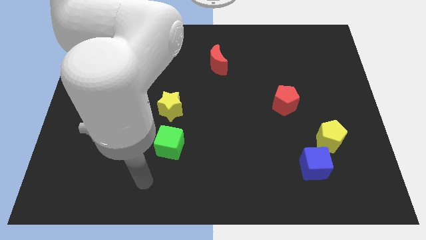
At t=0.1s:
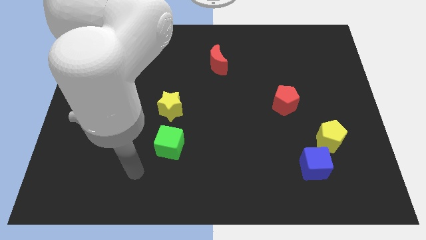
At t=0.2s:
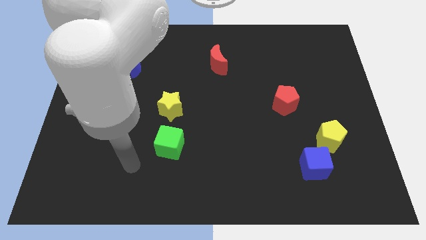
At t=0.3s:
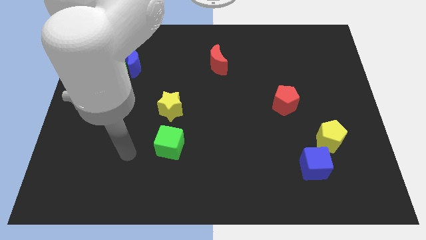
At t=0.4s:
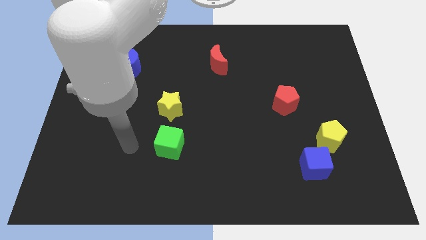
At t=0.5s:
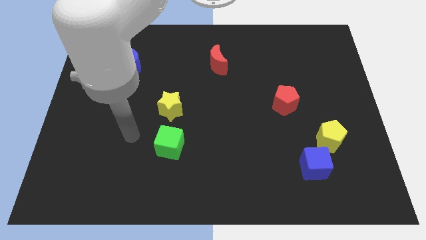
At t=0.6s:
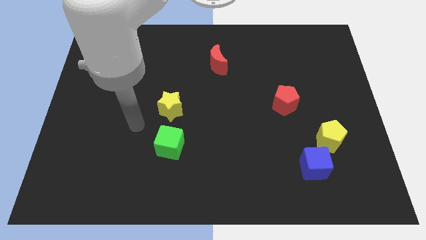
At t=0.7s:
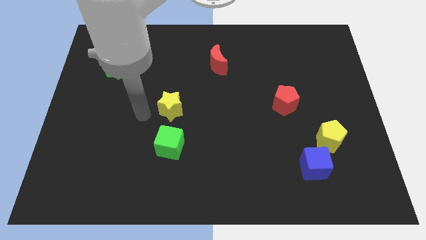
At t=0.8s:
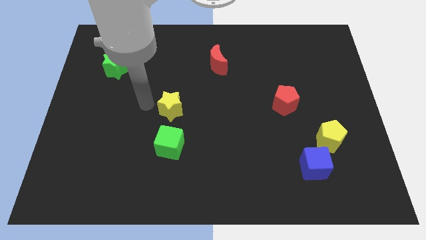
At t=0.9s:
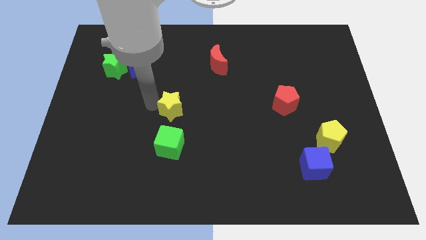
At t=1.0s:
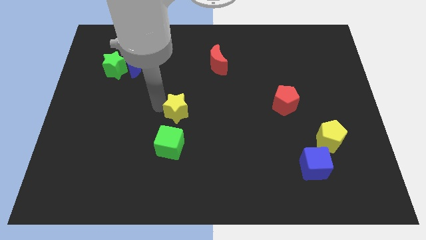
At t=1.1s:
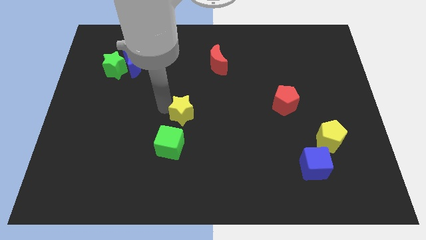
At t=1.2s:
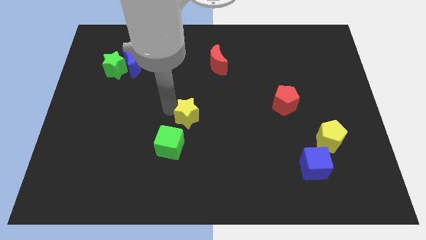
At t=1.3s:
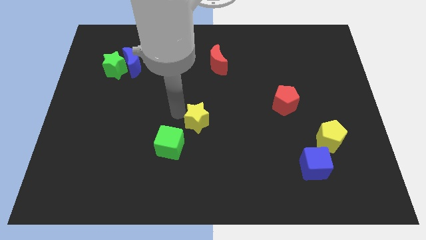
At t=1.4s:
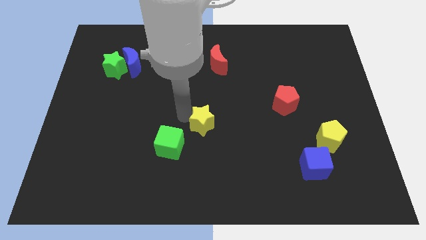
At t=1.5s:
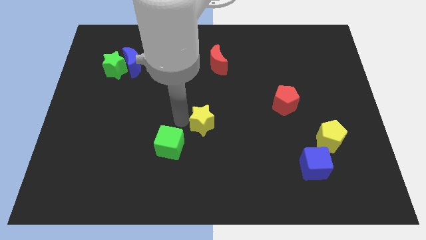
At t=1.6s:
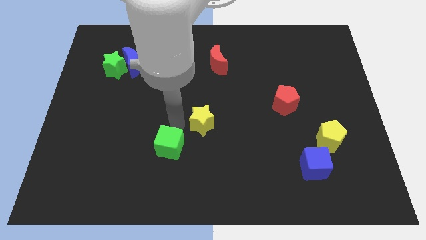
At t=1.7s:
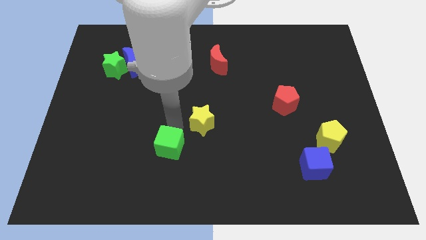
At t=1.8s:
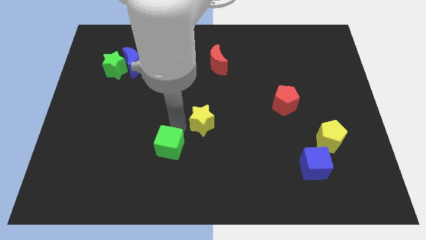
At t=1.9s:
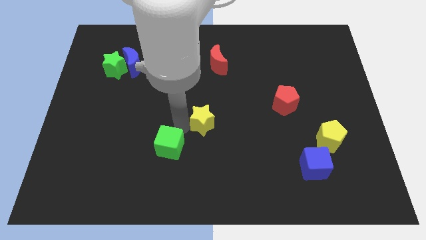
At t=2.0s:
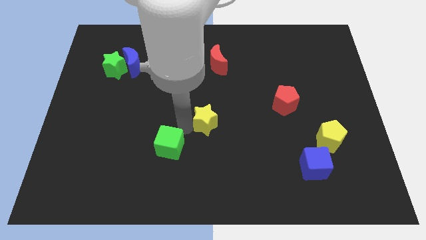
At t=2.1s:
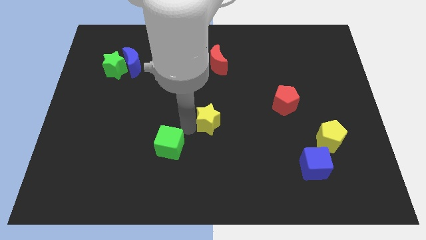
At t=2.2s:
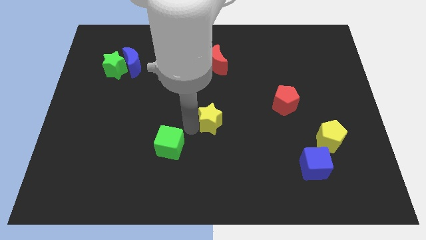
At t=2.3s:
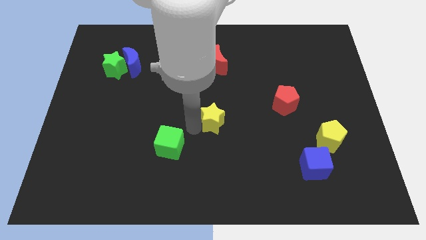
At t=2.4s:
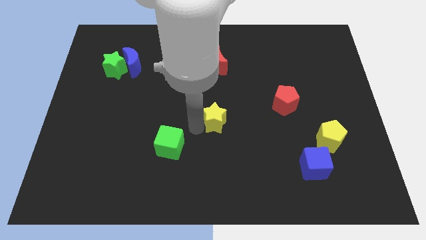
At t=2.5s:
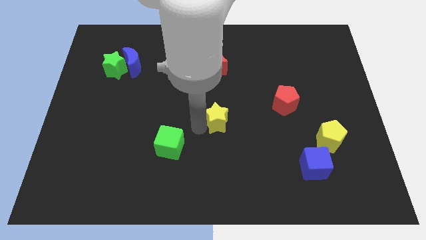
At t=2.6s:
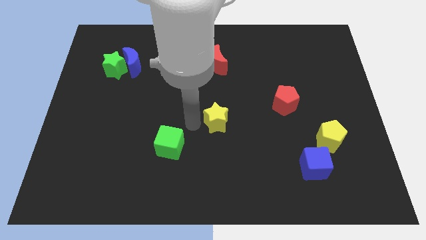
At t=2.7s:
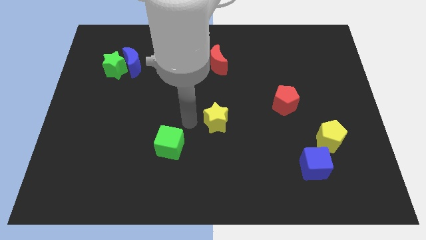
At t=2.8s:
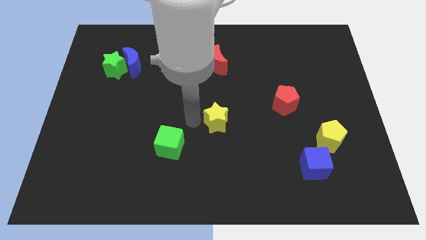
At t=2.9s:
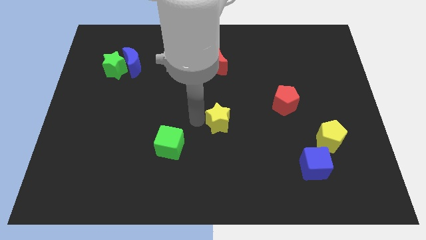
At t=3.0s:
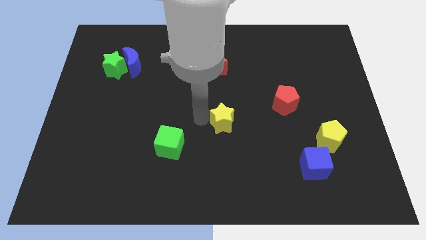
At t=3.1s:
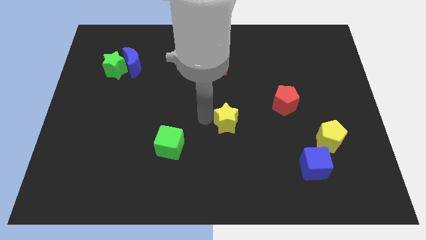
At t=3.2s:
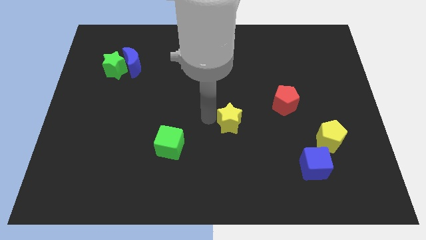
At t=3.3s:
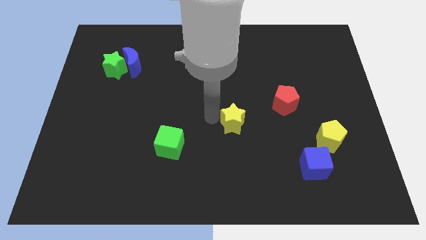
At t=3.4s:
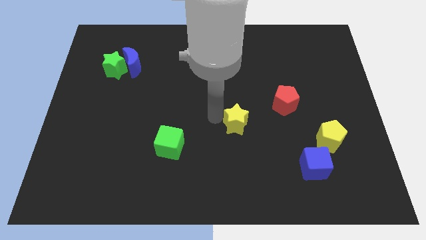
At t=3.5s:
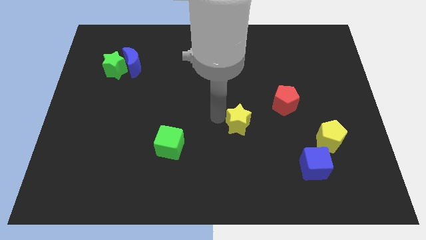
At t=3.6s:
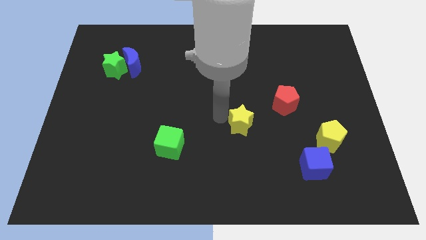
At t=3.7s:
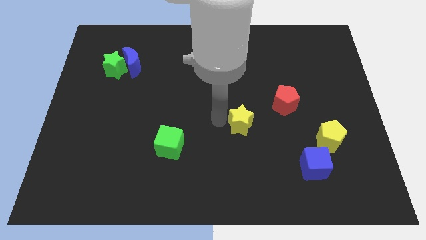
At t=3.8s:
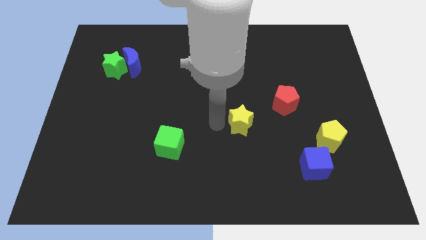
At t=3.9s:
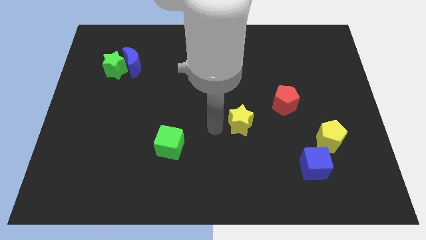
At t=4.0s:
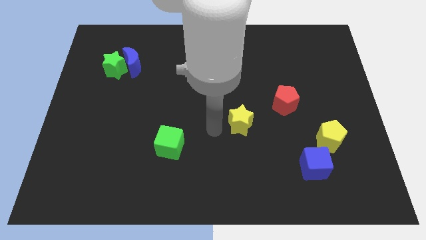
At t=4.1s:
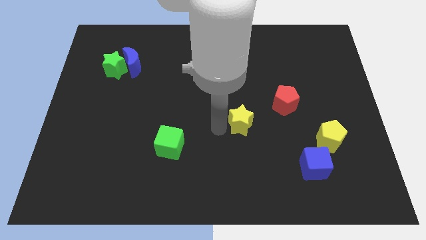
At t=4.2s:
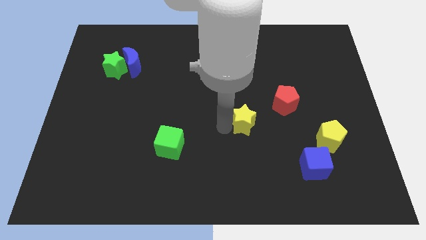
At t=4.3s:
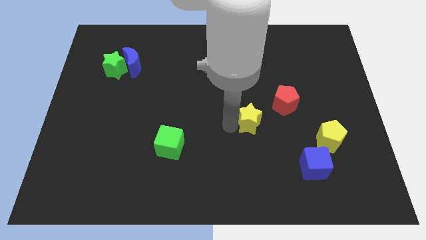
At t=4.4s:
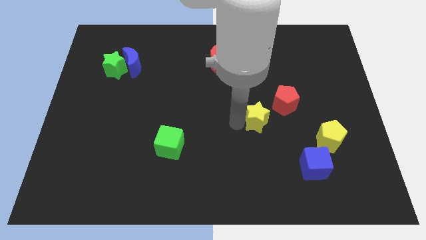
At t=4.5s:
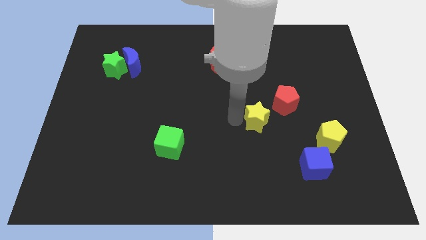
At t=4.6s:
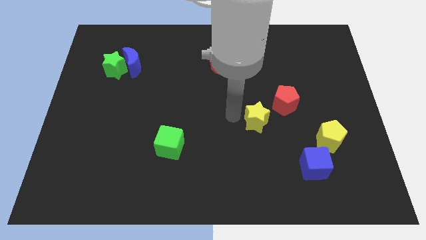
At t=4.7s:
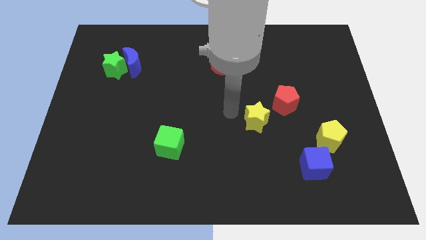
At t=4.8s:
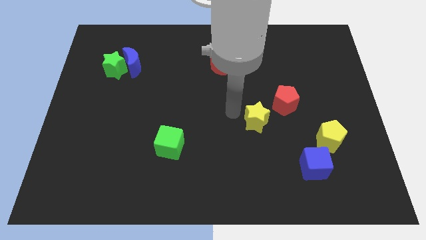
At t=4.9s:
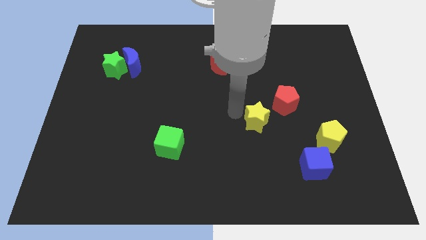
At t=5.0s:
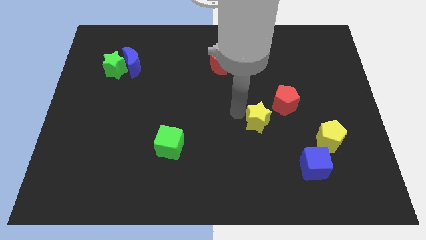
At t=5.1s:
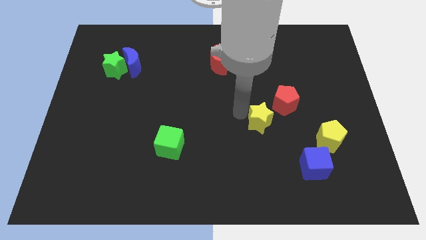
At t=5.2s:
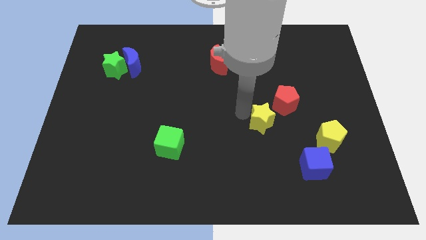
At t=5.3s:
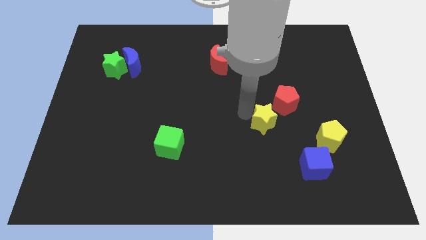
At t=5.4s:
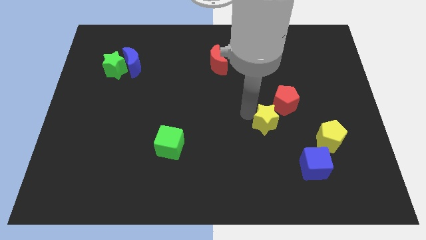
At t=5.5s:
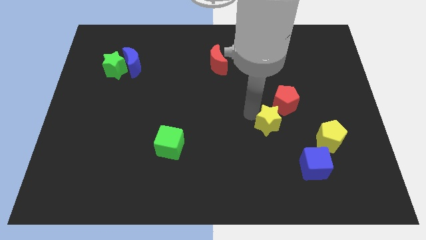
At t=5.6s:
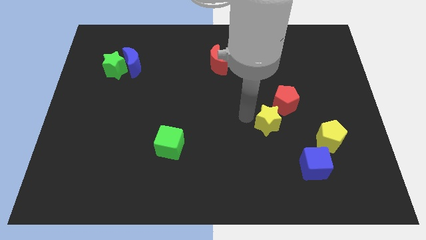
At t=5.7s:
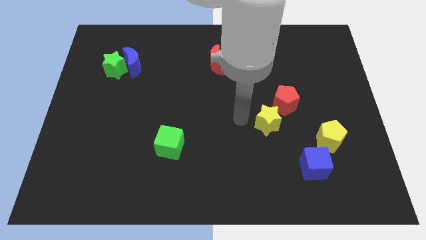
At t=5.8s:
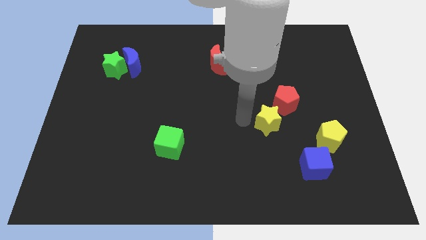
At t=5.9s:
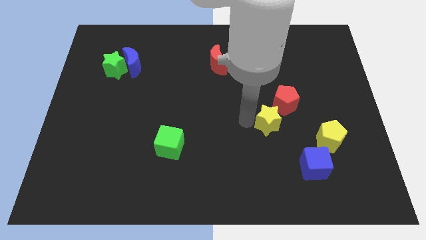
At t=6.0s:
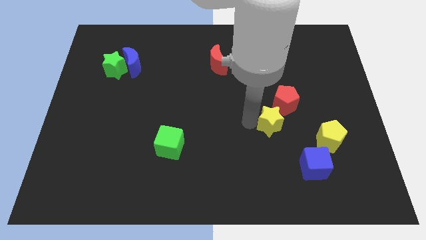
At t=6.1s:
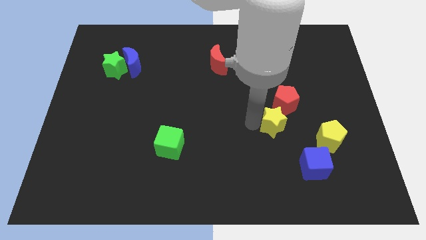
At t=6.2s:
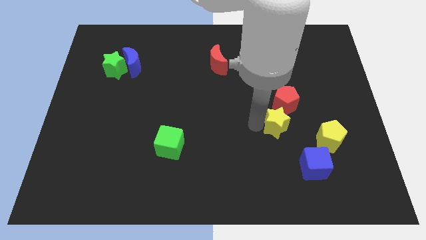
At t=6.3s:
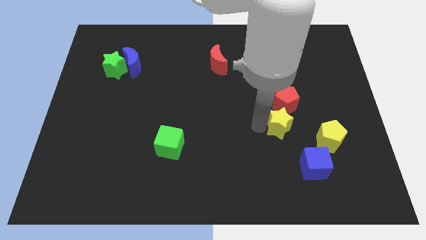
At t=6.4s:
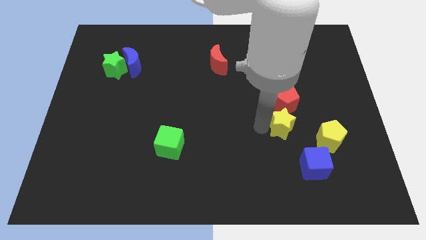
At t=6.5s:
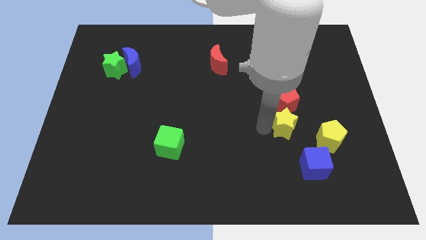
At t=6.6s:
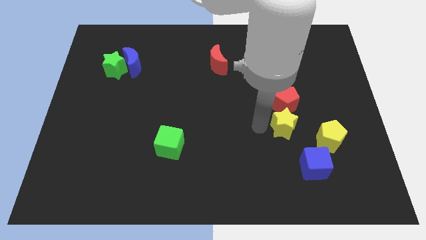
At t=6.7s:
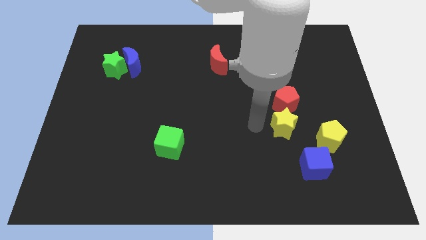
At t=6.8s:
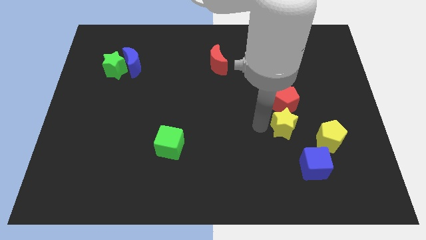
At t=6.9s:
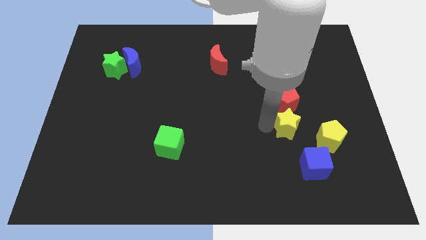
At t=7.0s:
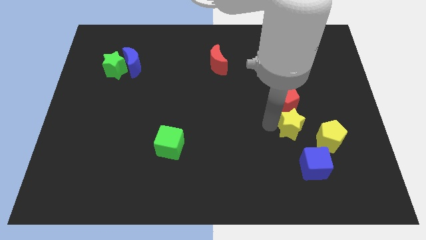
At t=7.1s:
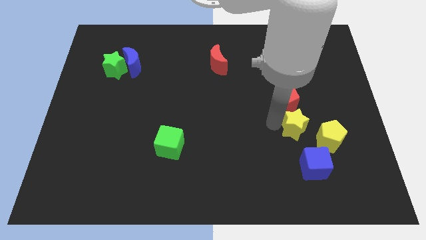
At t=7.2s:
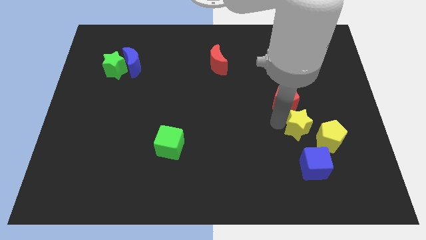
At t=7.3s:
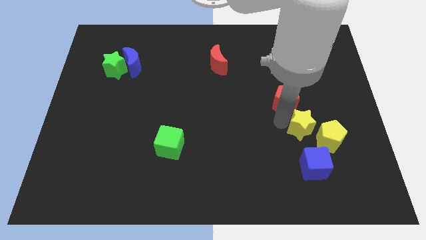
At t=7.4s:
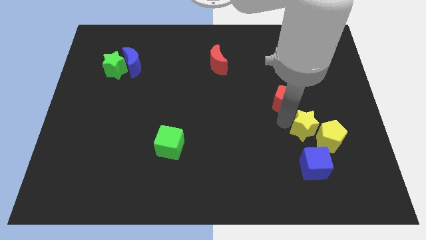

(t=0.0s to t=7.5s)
push the yellow star next to the yellow pentagon
